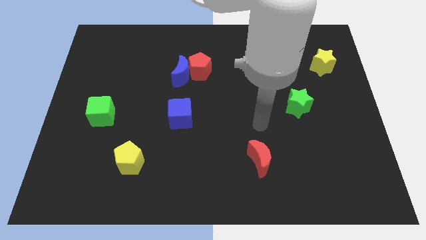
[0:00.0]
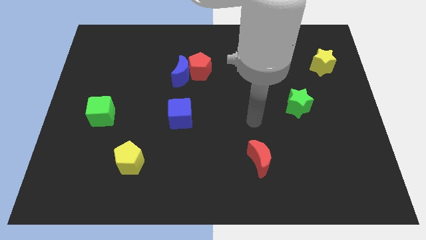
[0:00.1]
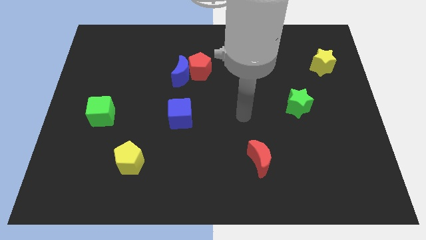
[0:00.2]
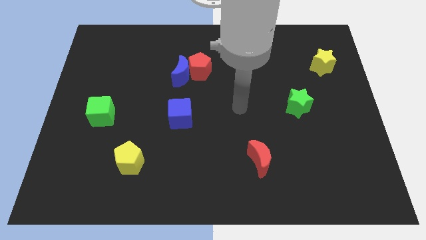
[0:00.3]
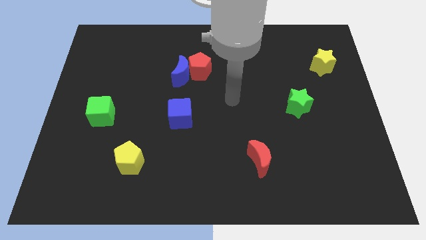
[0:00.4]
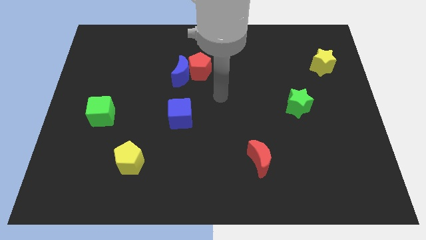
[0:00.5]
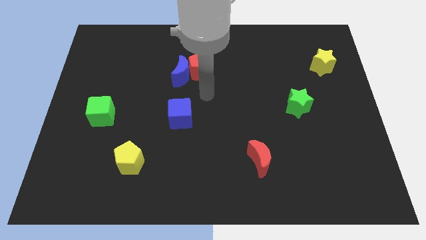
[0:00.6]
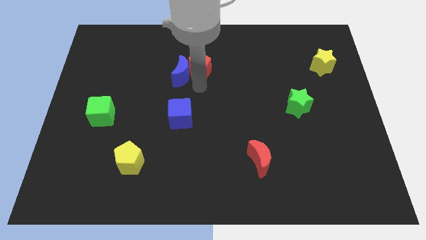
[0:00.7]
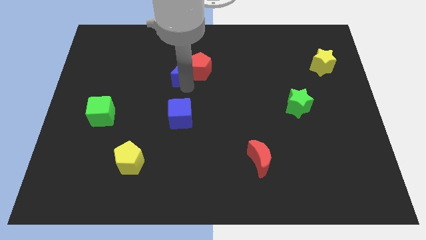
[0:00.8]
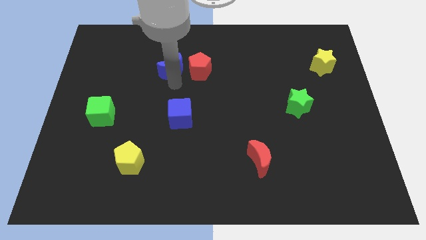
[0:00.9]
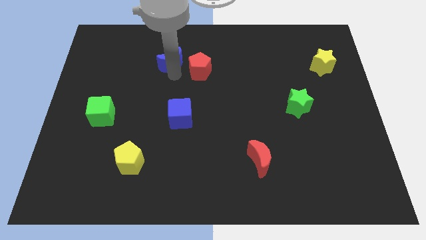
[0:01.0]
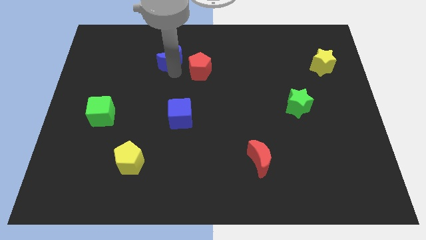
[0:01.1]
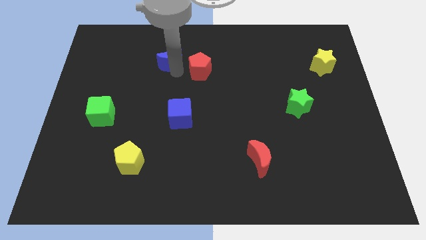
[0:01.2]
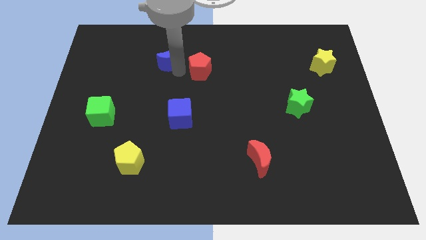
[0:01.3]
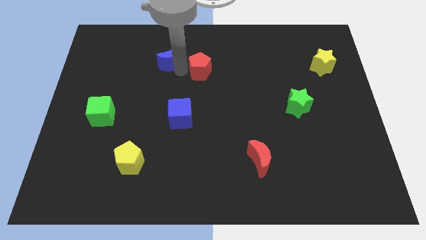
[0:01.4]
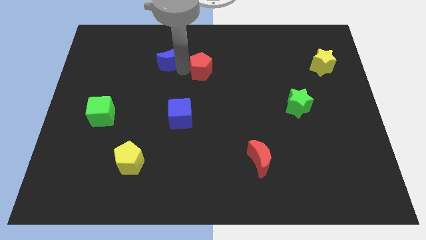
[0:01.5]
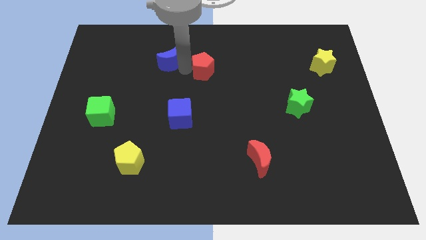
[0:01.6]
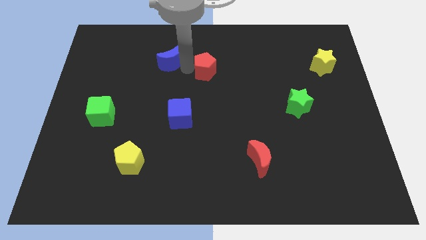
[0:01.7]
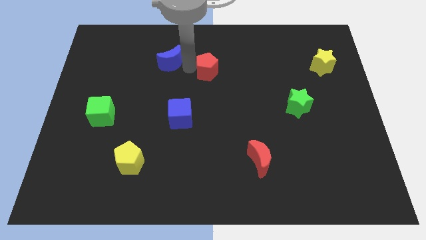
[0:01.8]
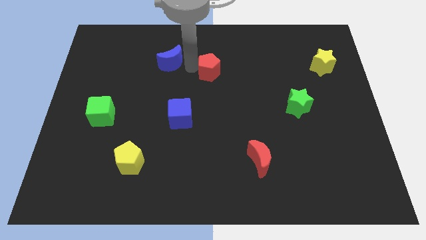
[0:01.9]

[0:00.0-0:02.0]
pull the red pentagon apart from the blue moon

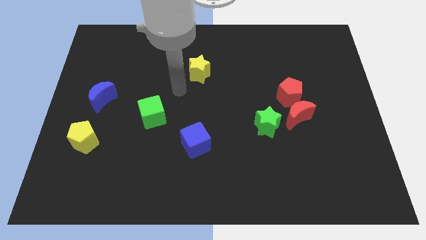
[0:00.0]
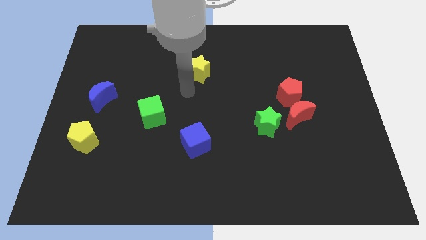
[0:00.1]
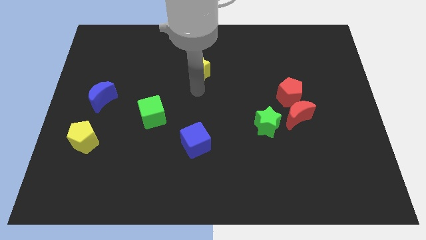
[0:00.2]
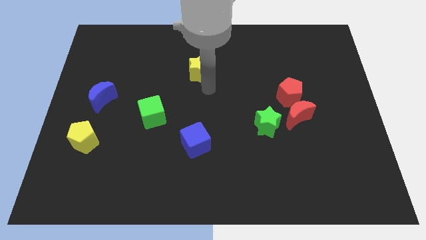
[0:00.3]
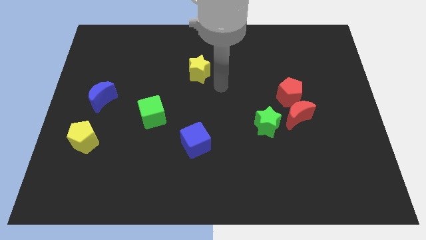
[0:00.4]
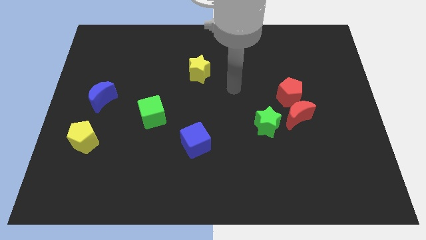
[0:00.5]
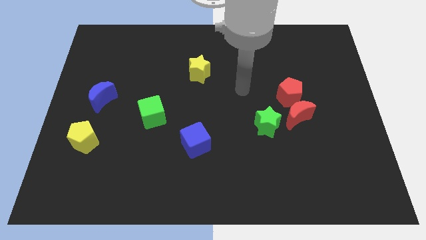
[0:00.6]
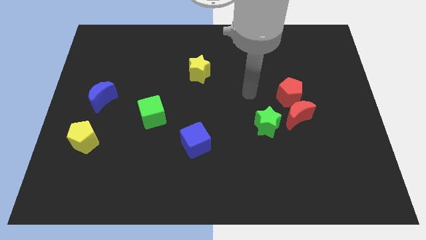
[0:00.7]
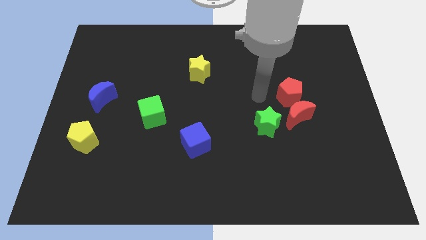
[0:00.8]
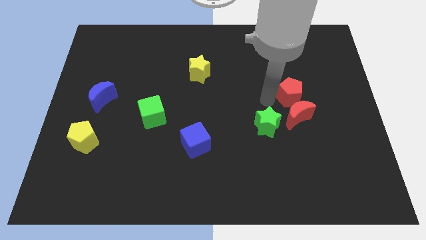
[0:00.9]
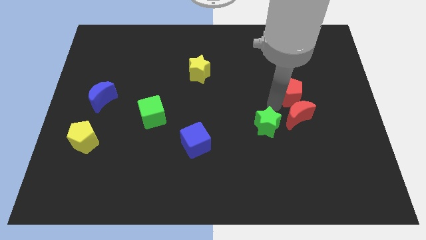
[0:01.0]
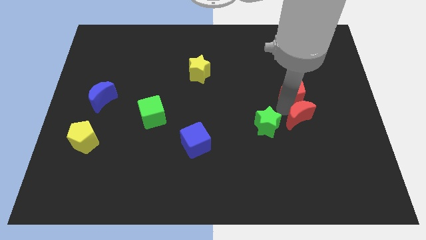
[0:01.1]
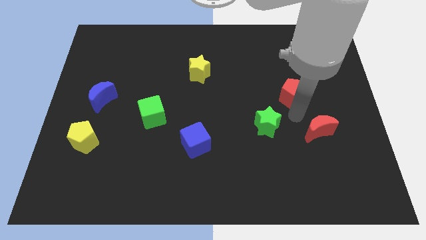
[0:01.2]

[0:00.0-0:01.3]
pull the red pentagon apart from the red moon

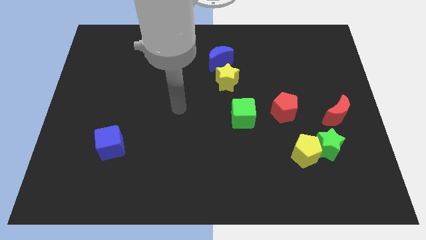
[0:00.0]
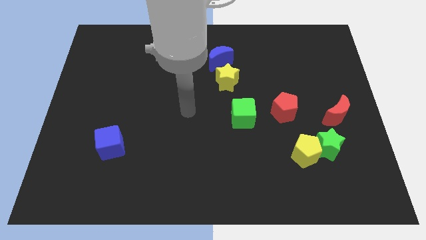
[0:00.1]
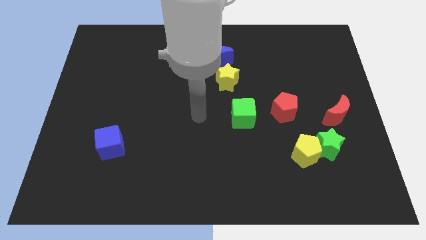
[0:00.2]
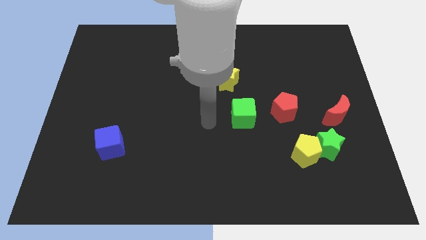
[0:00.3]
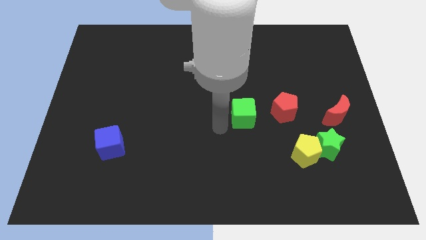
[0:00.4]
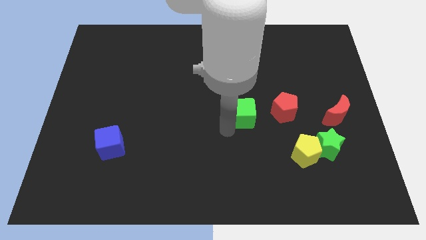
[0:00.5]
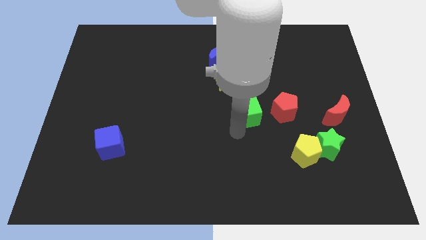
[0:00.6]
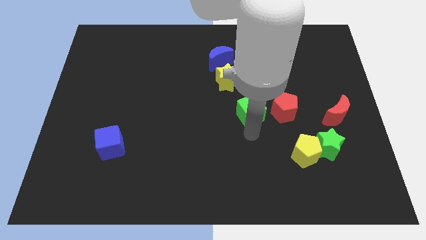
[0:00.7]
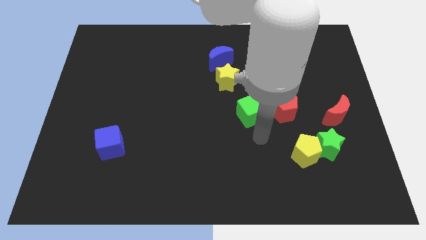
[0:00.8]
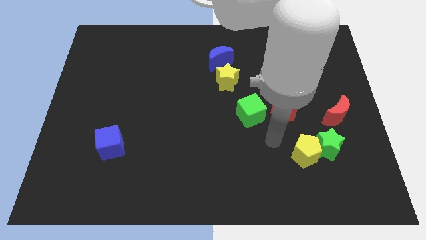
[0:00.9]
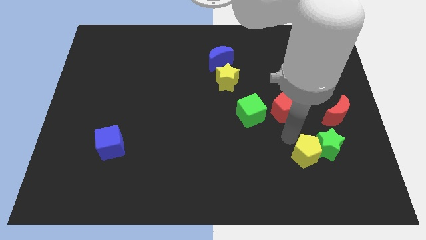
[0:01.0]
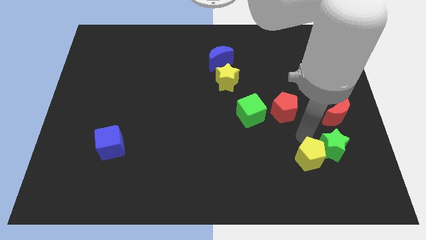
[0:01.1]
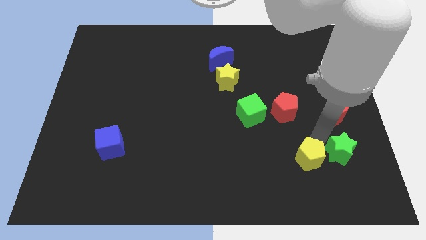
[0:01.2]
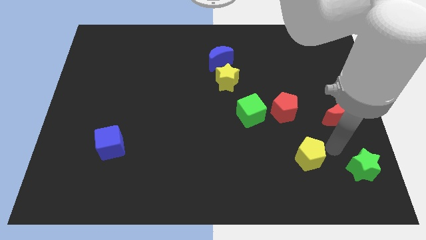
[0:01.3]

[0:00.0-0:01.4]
move the yellow pentagon away from the green star

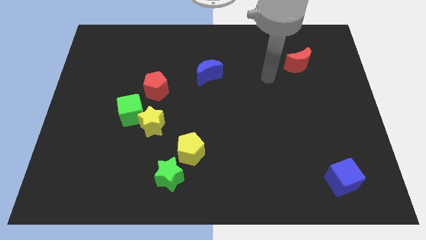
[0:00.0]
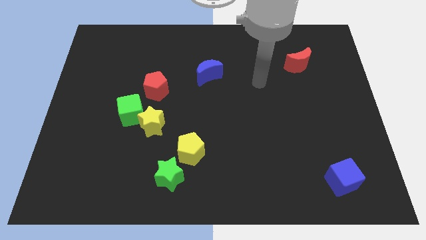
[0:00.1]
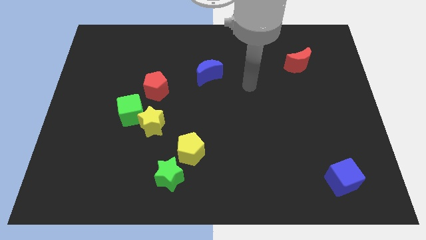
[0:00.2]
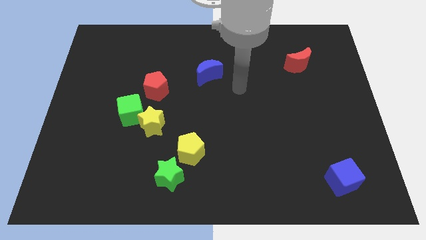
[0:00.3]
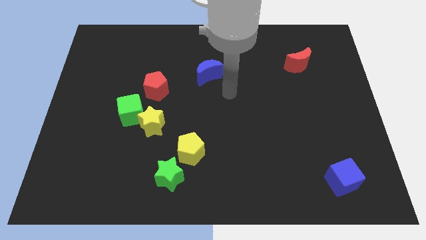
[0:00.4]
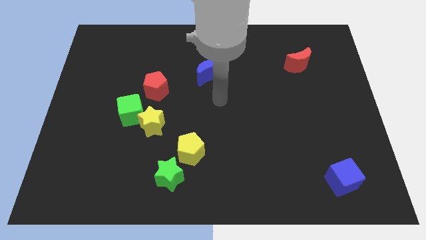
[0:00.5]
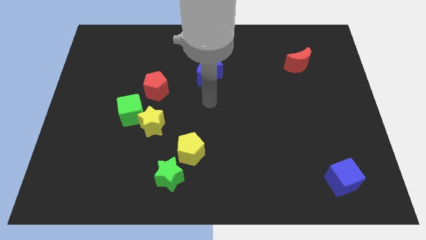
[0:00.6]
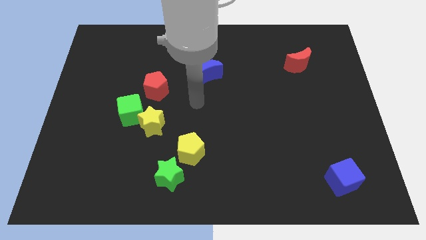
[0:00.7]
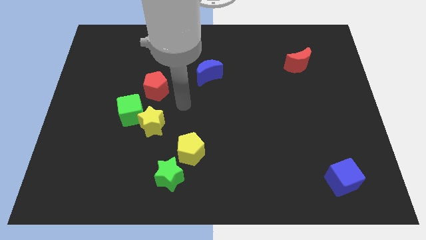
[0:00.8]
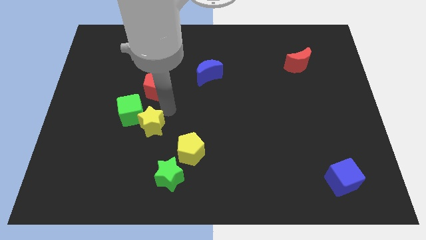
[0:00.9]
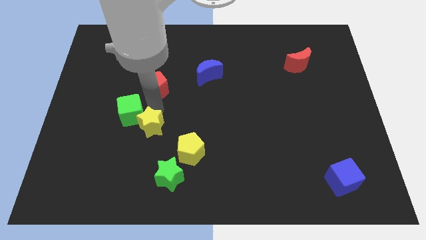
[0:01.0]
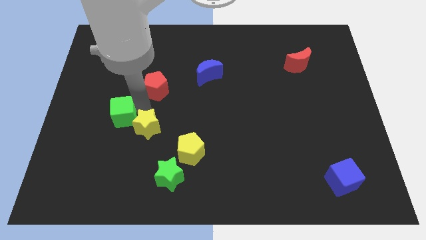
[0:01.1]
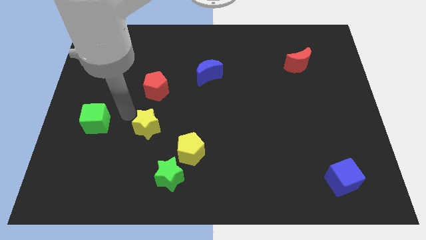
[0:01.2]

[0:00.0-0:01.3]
pull the yellow star apart from the green cube

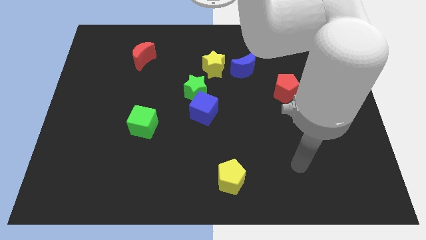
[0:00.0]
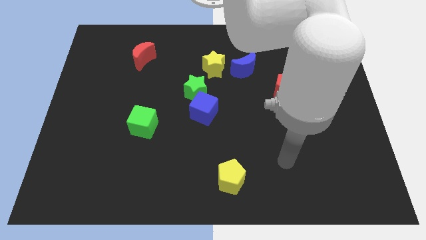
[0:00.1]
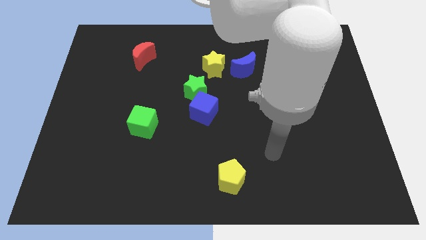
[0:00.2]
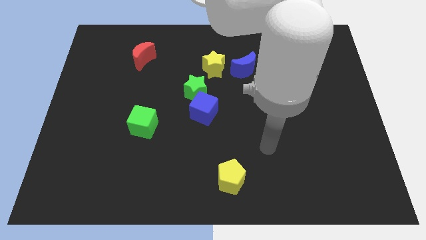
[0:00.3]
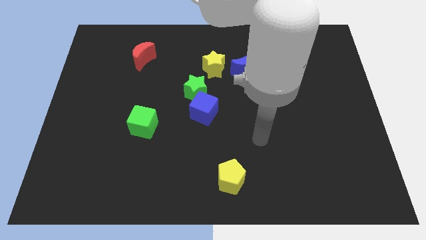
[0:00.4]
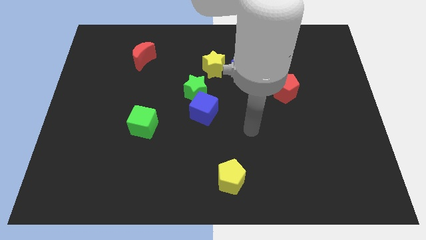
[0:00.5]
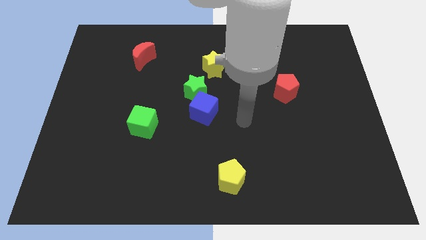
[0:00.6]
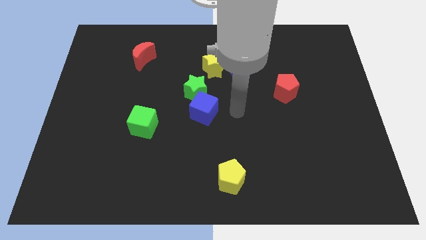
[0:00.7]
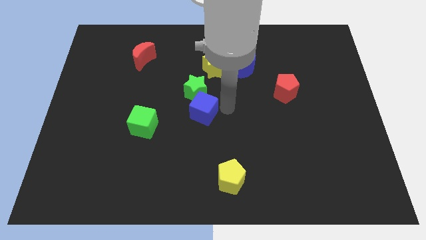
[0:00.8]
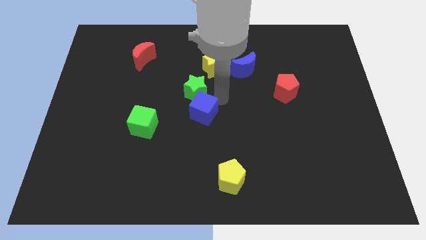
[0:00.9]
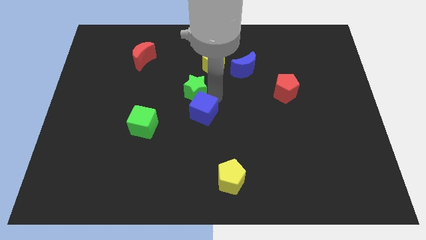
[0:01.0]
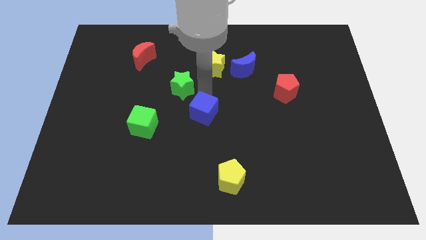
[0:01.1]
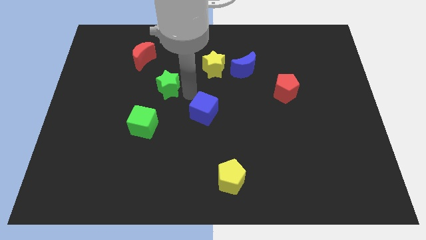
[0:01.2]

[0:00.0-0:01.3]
pull the blue cube apart from the green star

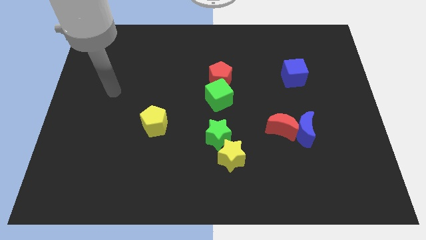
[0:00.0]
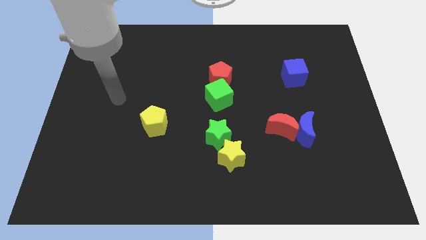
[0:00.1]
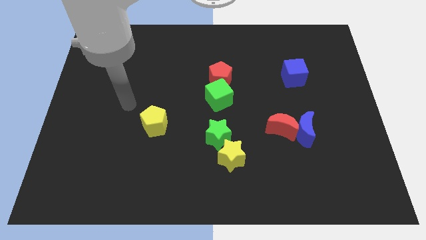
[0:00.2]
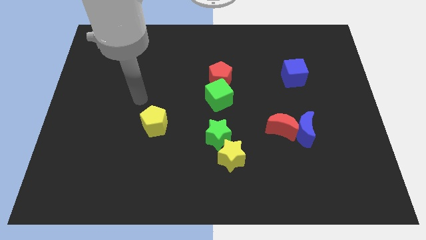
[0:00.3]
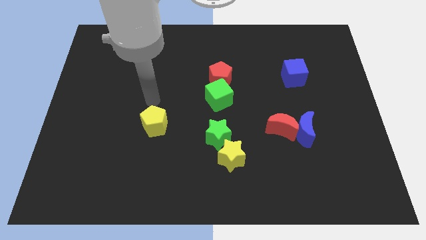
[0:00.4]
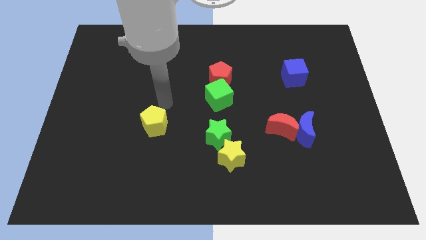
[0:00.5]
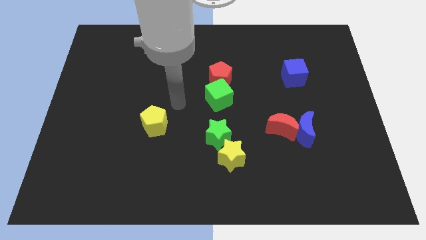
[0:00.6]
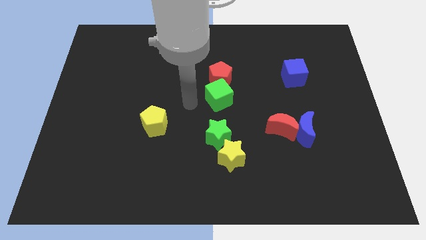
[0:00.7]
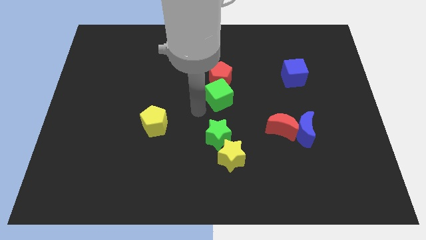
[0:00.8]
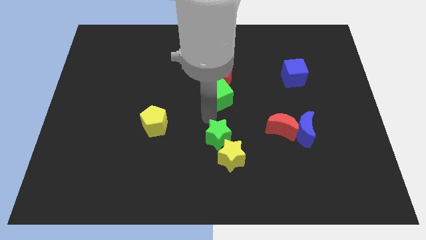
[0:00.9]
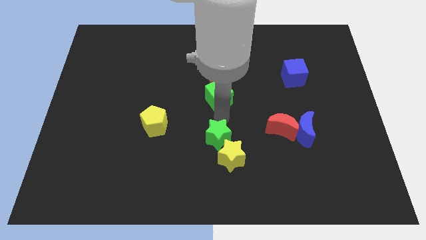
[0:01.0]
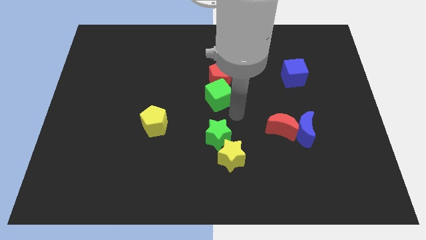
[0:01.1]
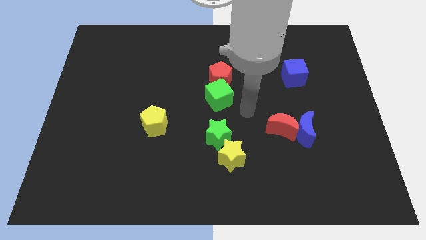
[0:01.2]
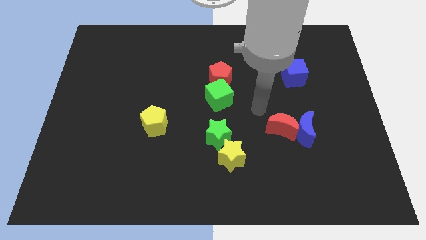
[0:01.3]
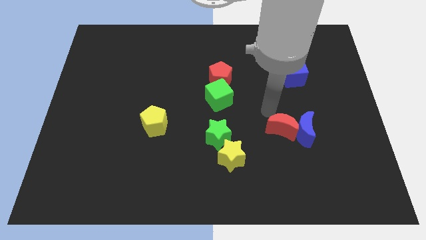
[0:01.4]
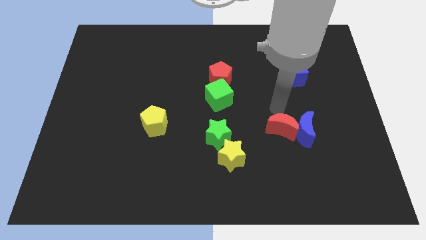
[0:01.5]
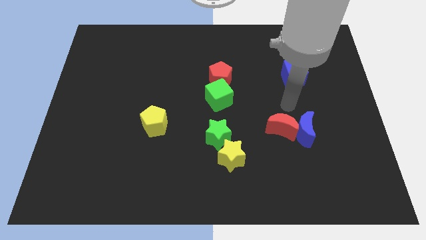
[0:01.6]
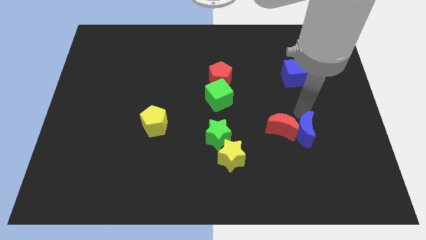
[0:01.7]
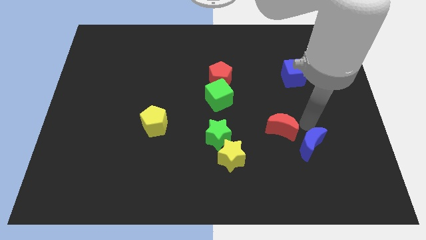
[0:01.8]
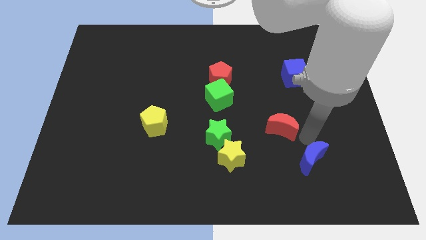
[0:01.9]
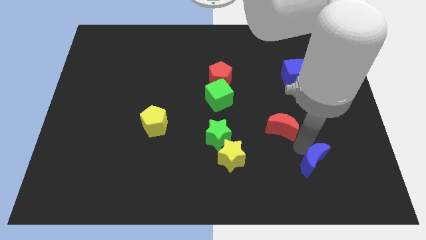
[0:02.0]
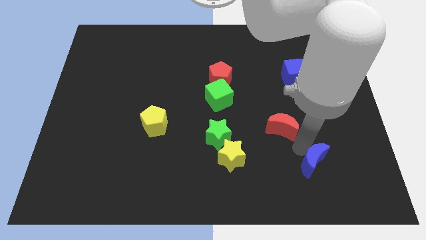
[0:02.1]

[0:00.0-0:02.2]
move the red moon away from the blue moon
